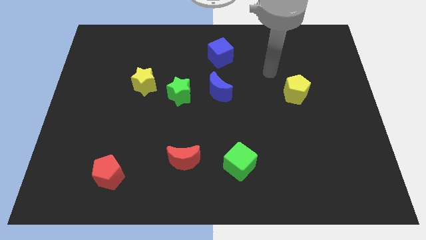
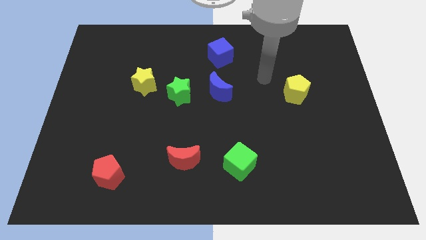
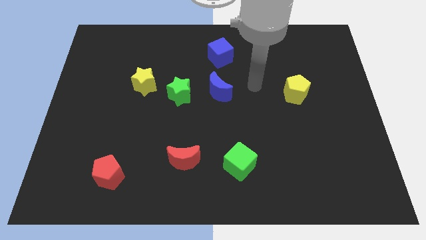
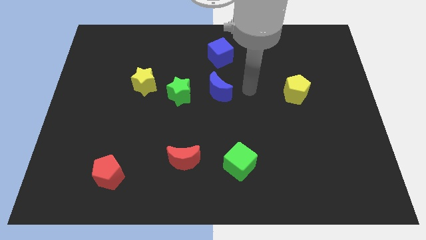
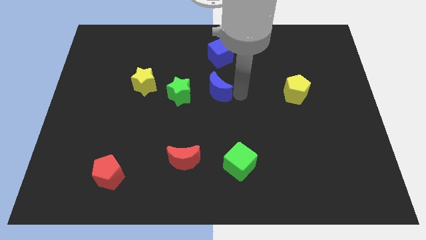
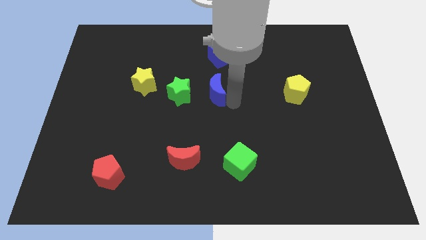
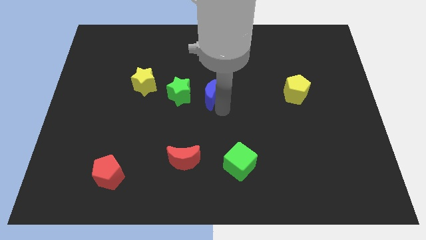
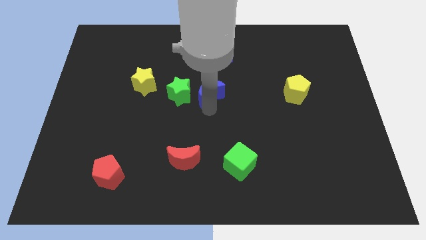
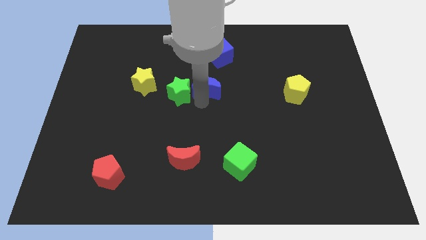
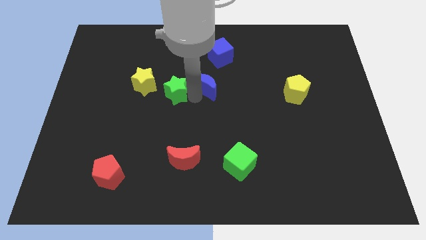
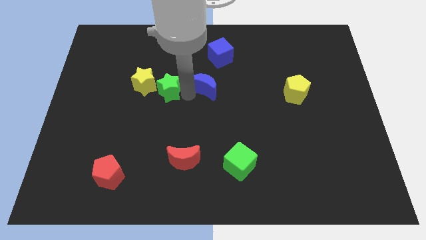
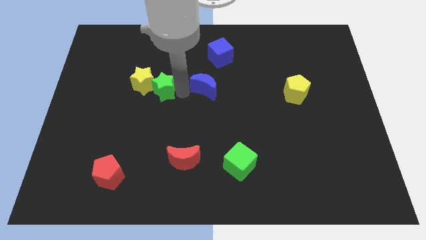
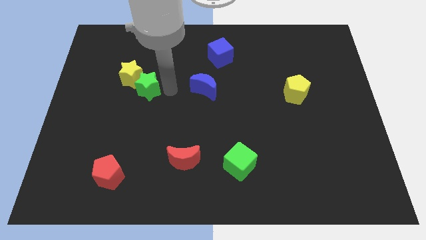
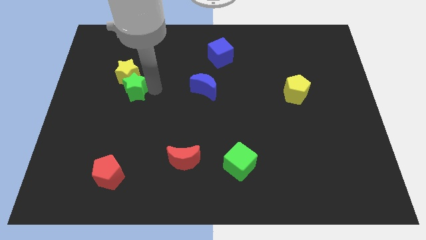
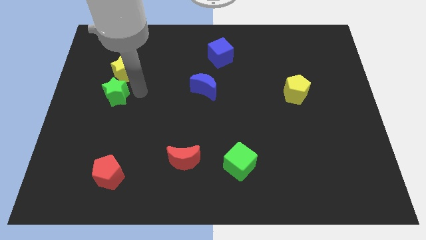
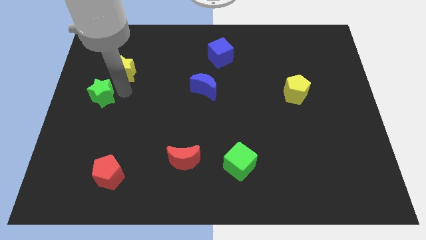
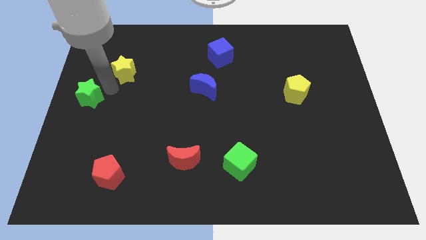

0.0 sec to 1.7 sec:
pull the yellow star apart from the green star

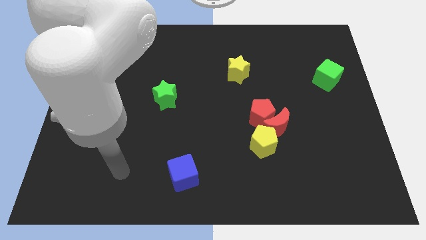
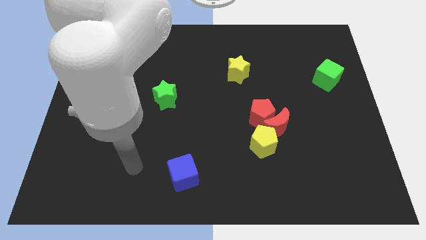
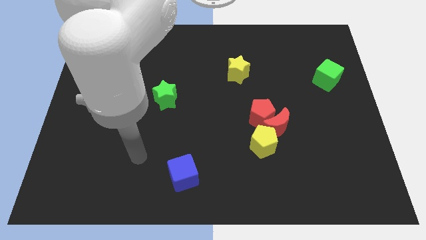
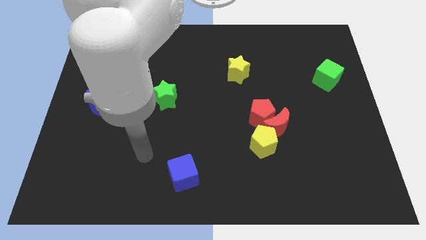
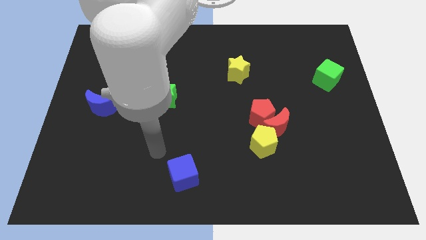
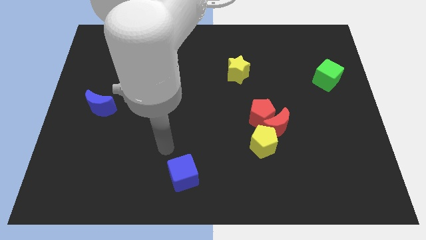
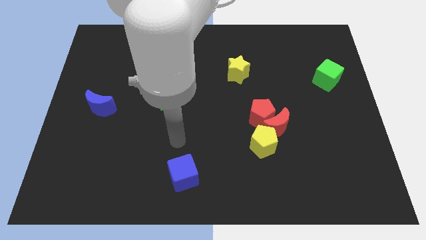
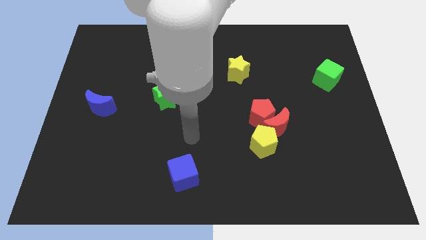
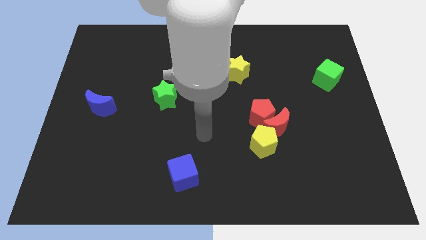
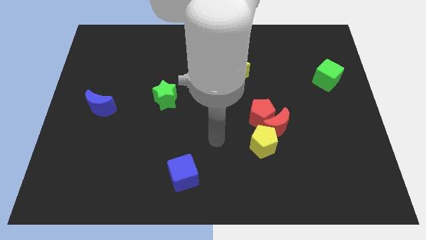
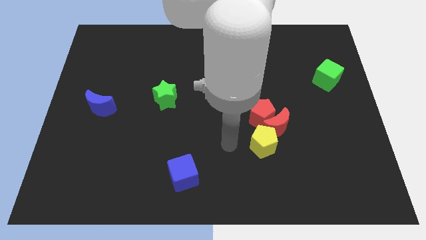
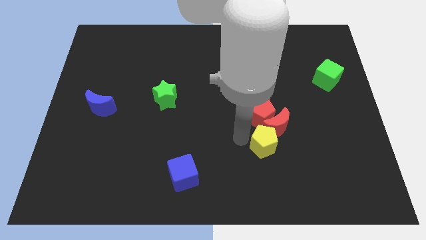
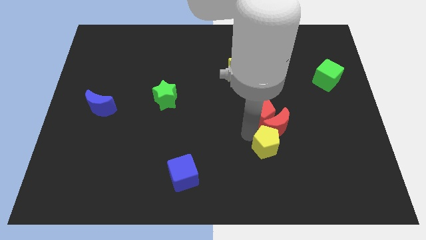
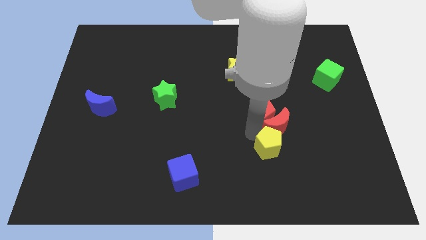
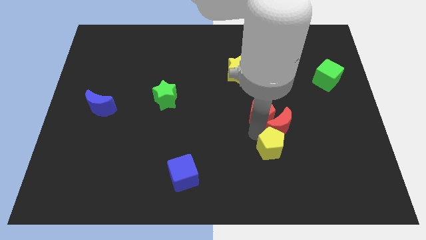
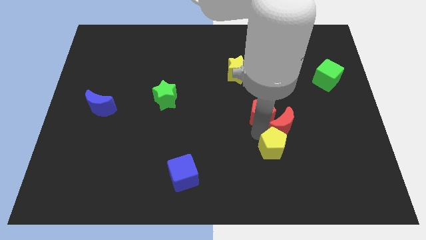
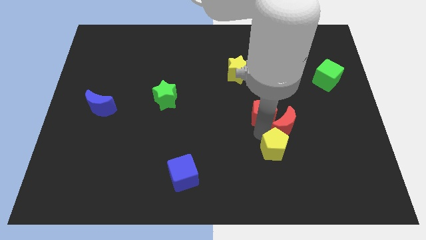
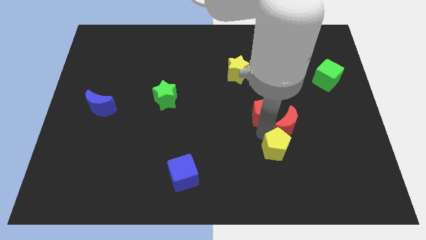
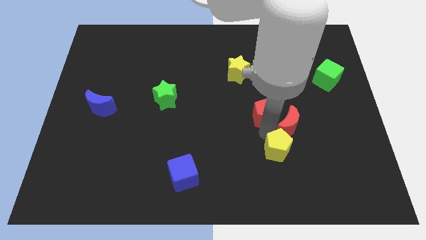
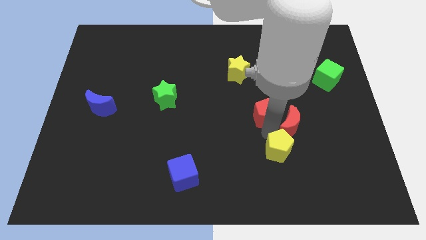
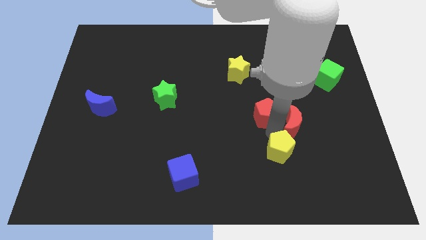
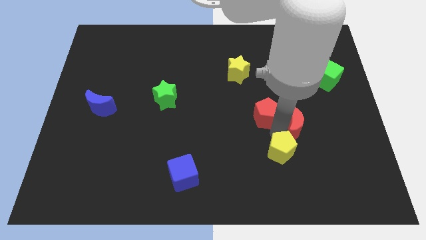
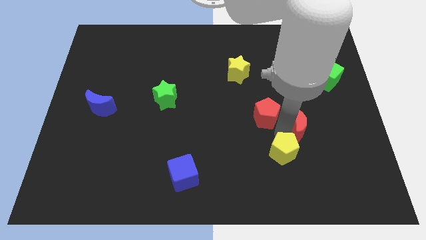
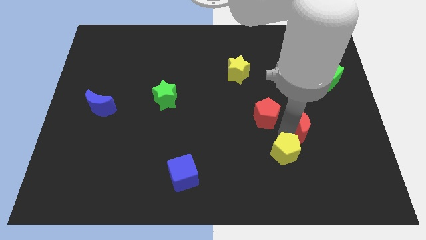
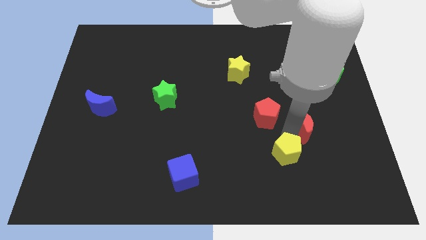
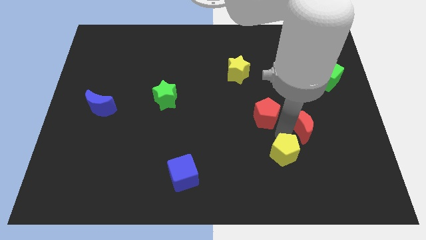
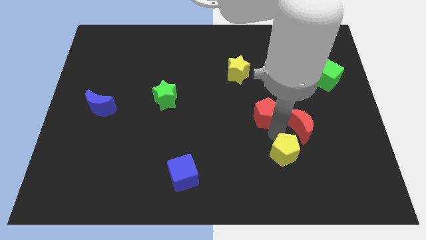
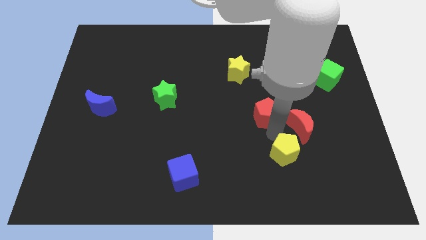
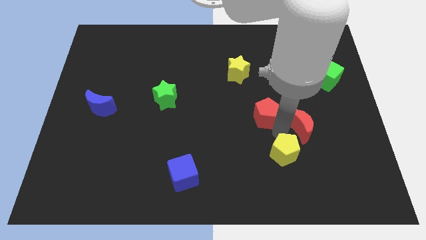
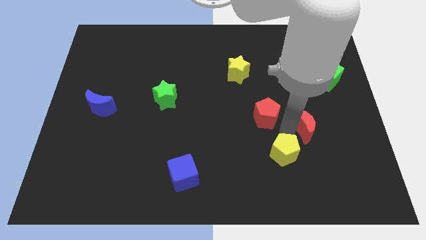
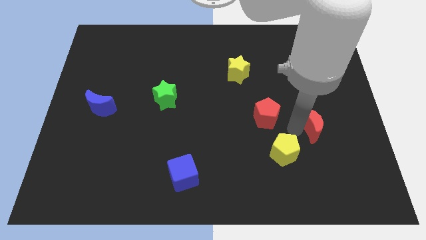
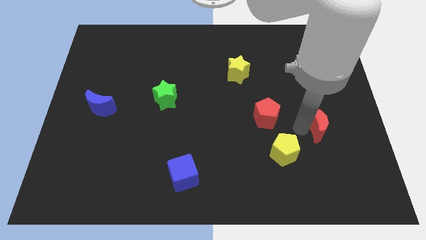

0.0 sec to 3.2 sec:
move the red moon away from the red pentagon and yellow pentagon

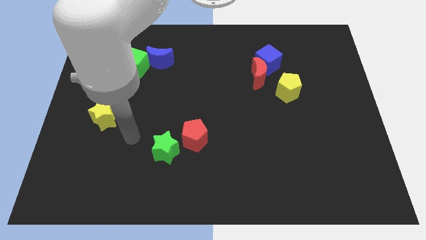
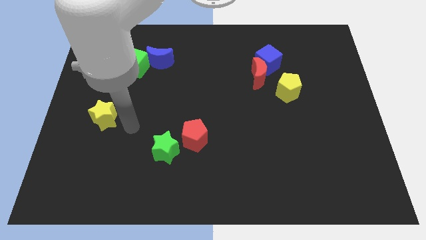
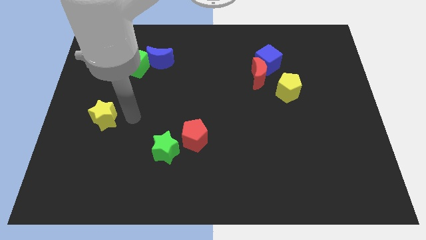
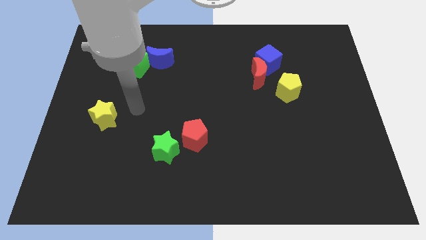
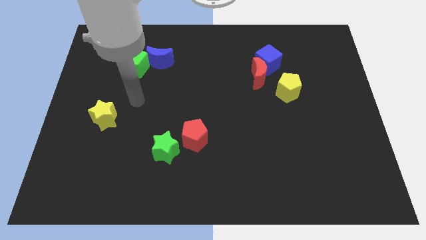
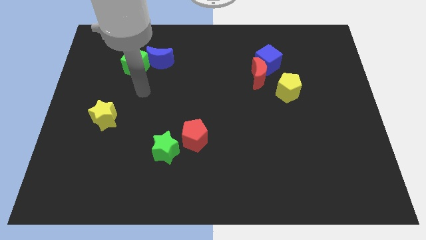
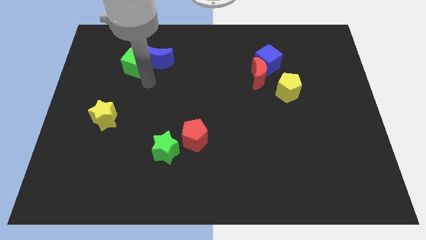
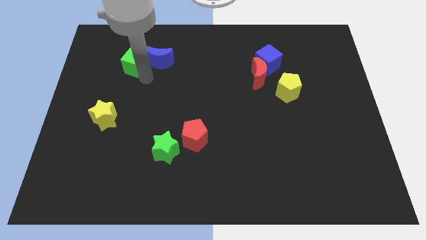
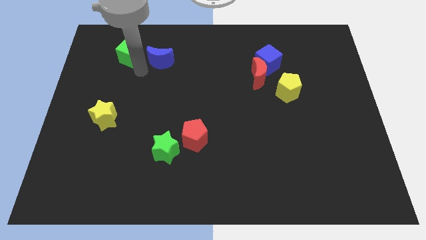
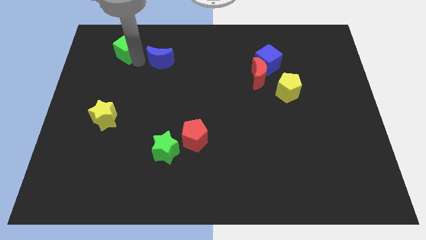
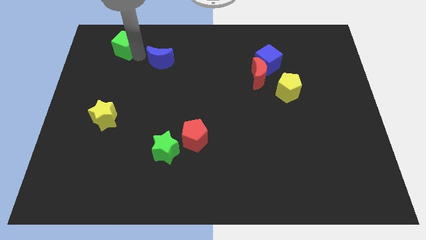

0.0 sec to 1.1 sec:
pull the blue moon apart from the green cube

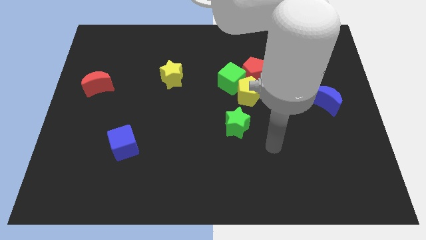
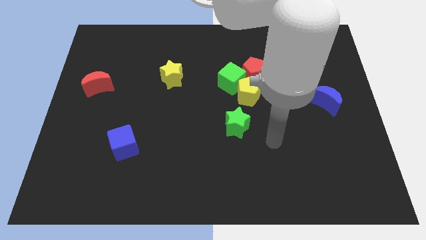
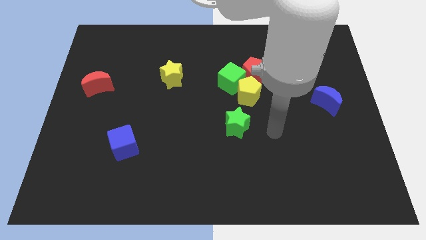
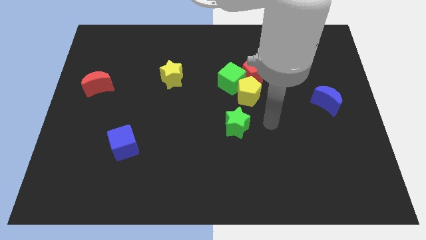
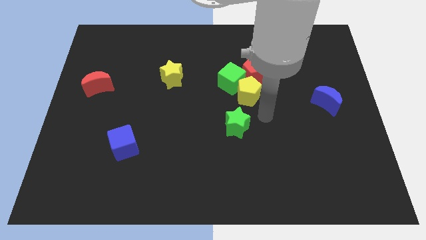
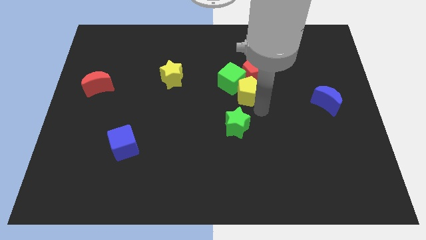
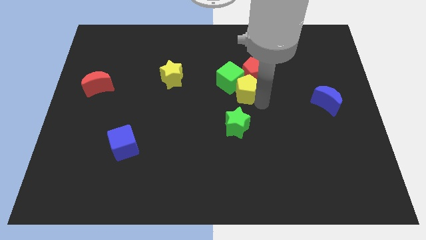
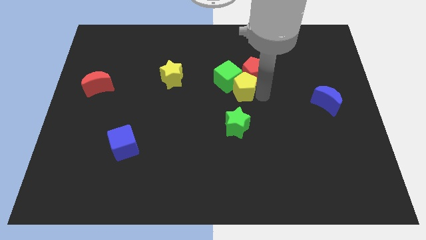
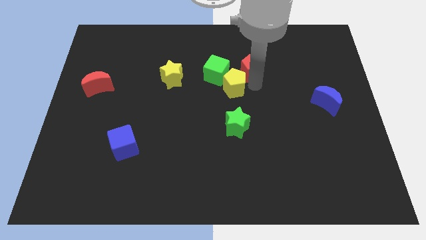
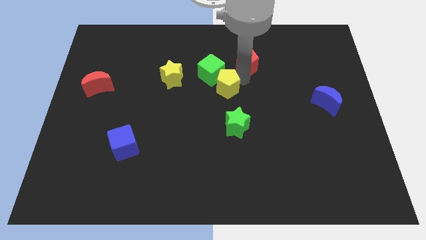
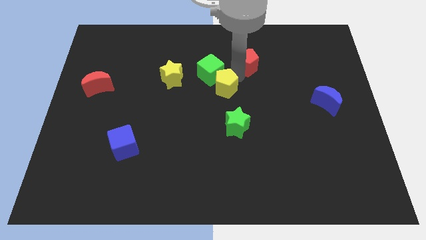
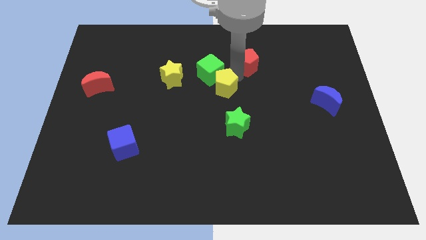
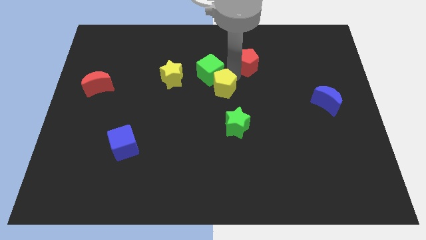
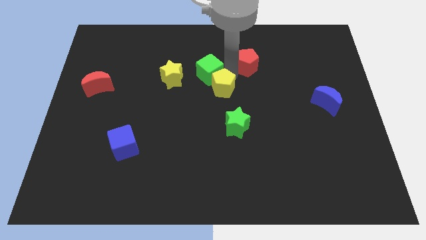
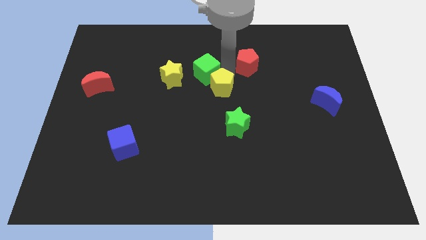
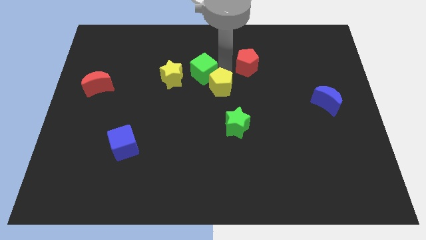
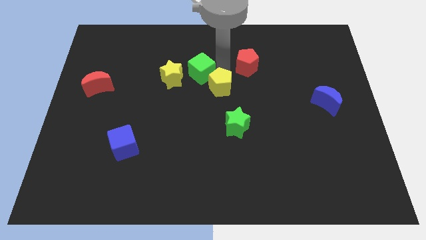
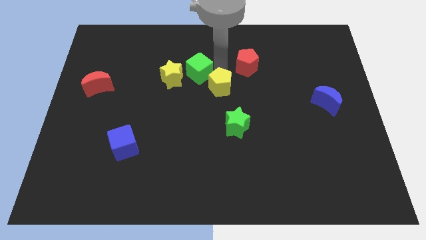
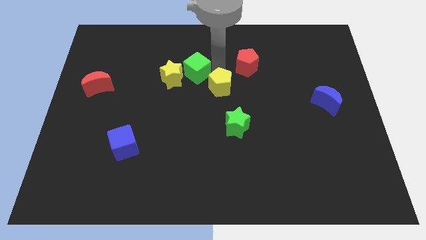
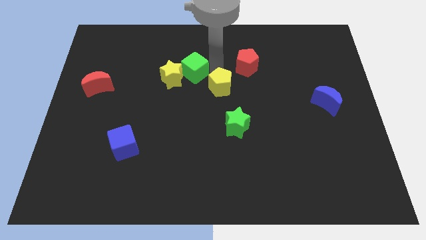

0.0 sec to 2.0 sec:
move the green cube away from the yellow pentagon and red pentagon

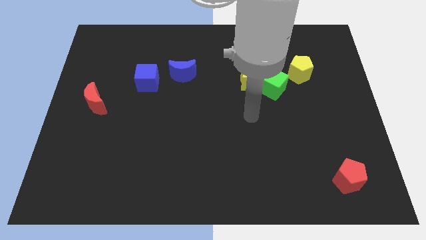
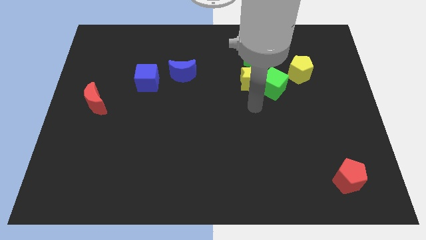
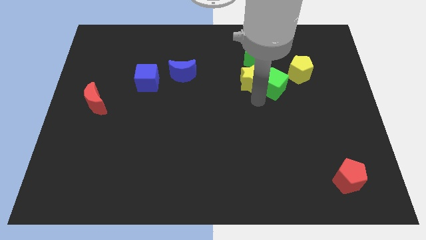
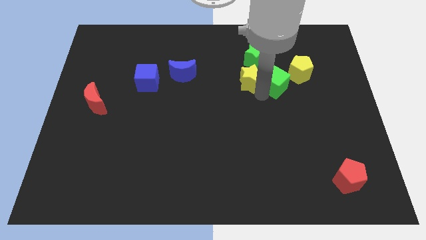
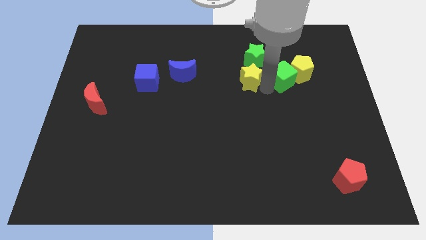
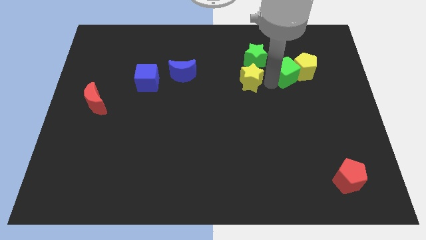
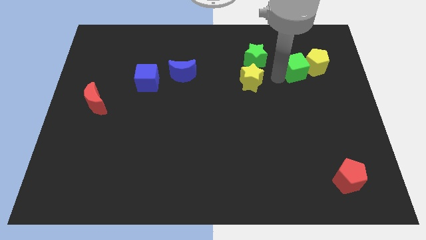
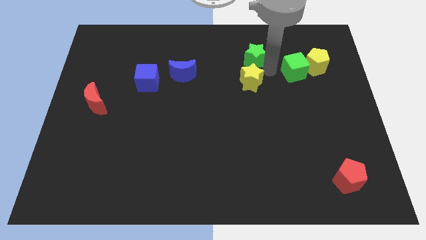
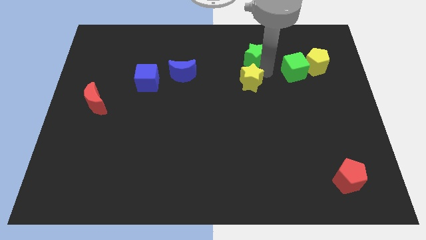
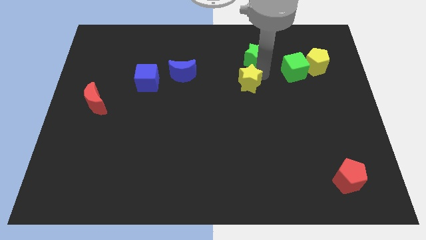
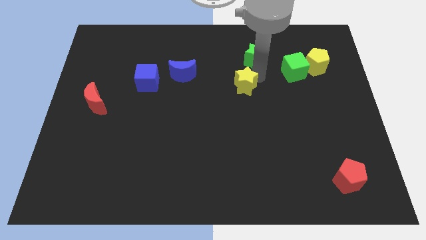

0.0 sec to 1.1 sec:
separate the yellow star from the green cube and green star
